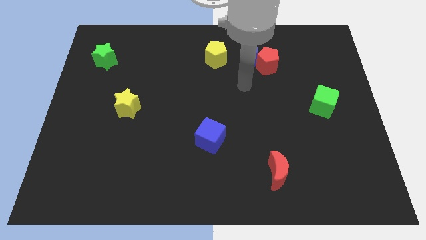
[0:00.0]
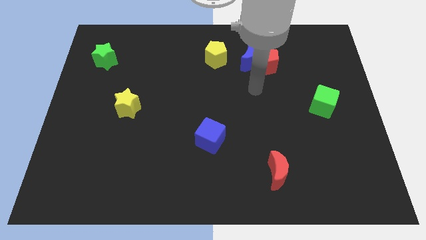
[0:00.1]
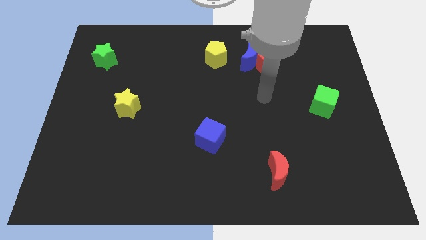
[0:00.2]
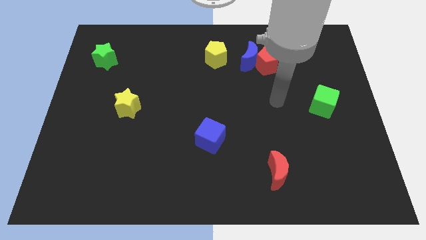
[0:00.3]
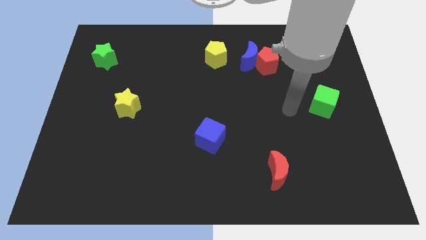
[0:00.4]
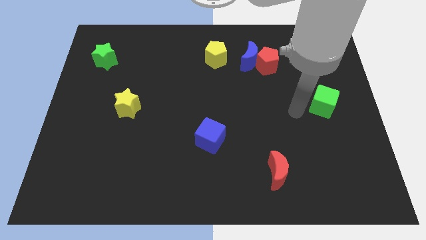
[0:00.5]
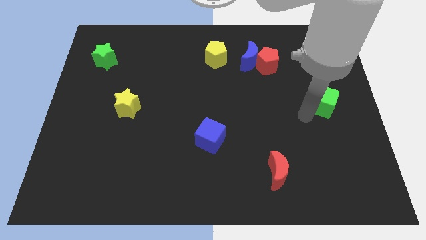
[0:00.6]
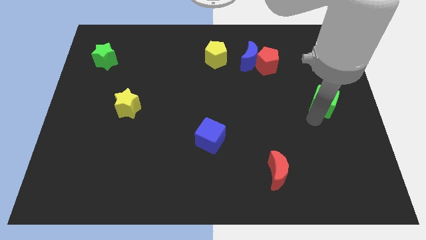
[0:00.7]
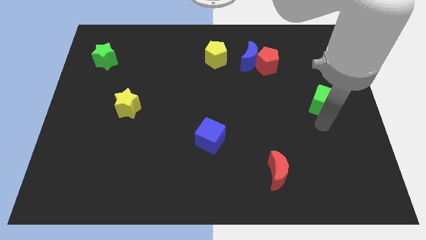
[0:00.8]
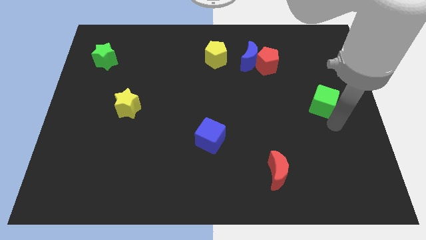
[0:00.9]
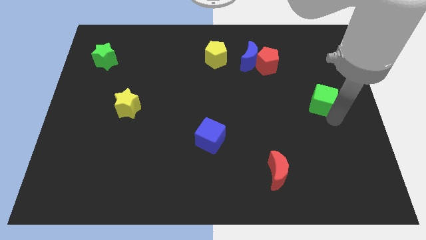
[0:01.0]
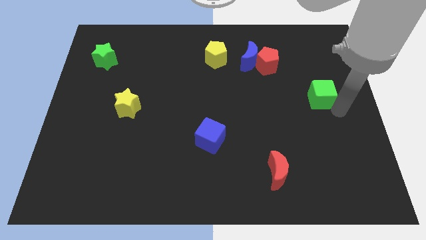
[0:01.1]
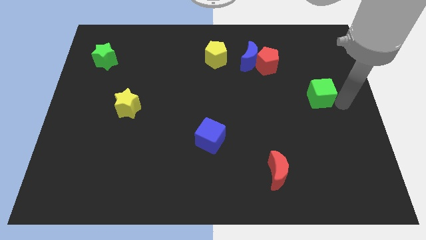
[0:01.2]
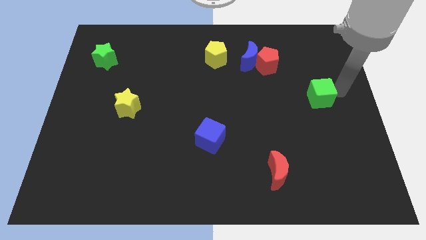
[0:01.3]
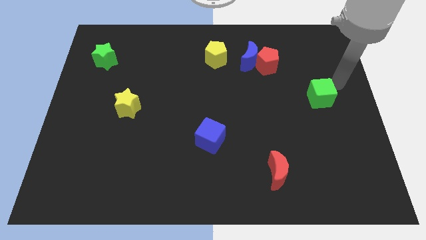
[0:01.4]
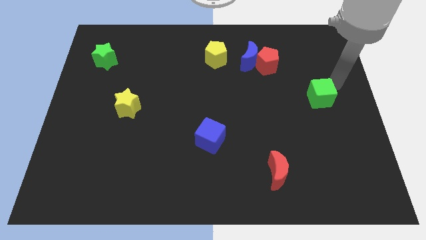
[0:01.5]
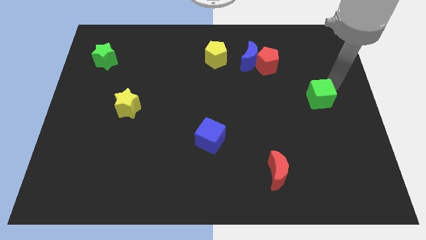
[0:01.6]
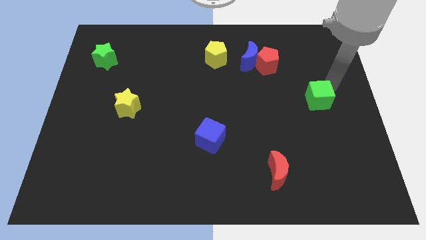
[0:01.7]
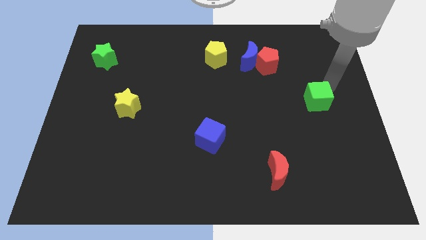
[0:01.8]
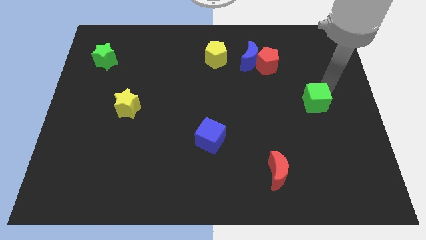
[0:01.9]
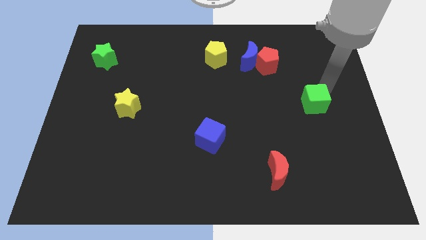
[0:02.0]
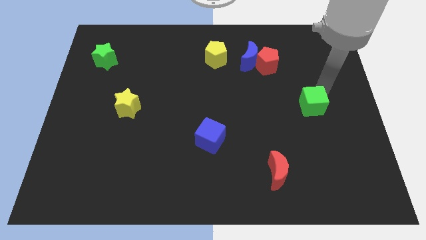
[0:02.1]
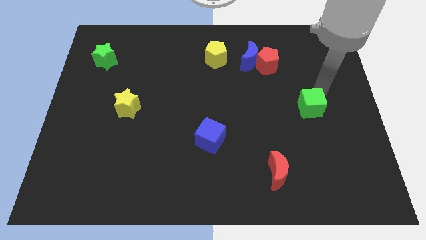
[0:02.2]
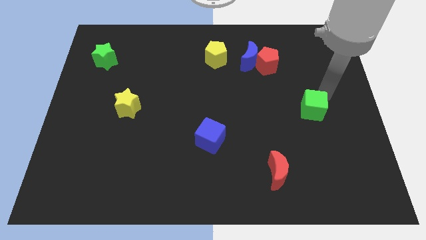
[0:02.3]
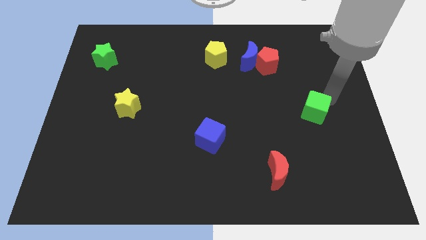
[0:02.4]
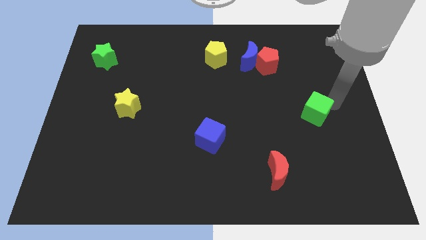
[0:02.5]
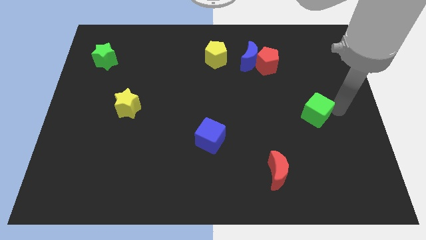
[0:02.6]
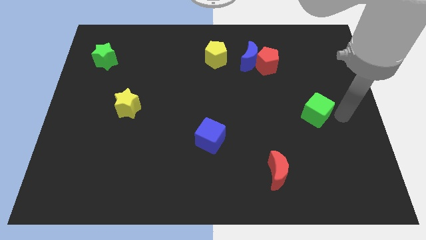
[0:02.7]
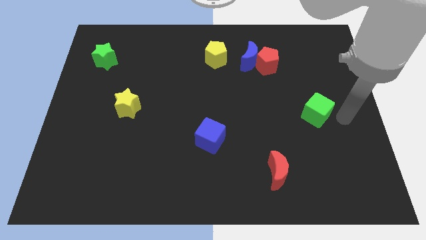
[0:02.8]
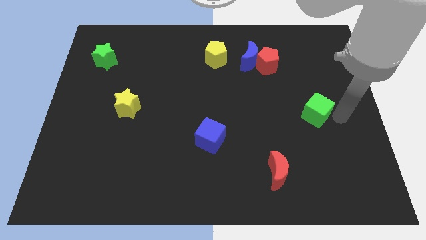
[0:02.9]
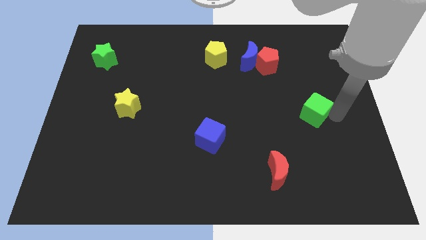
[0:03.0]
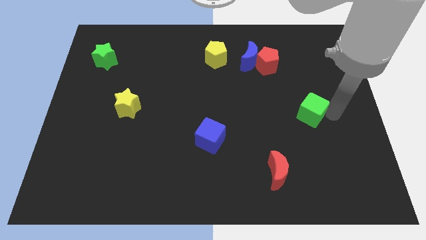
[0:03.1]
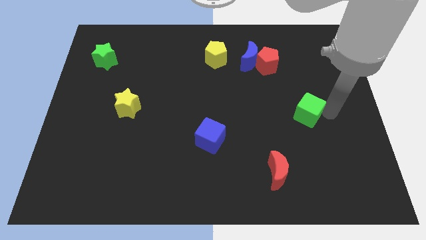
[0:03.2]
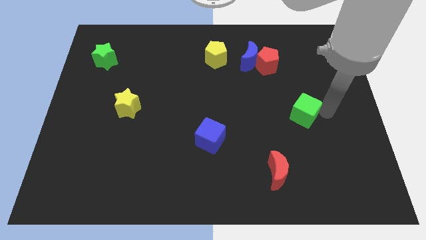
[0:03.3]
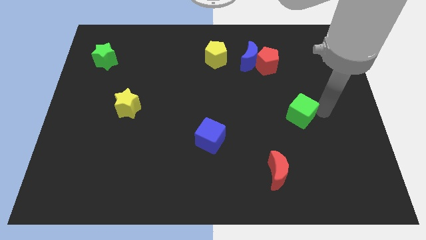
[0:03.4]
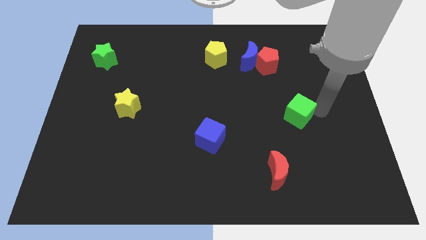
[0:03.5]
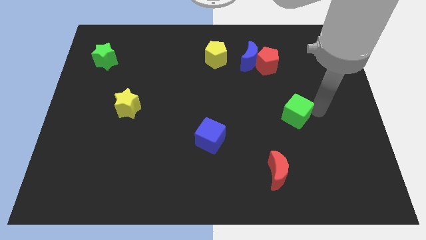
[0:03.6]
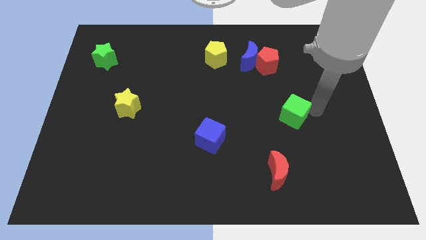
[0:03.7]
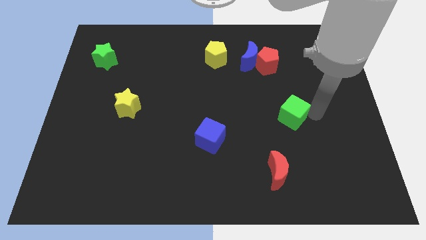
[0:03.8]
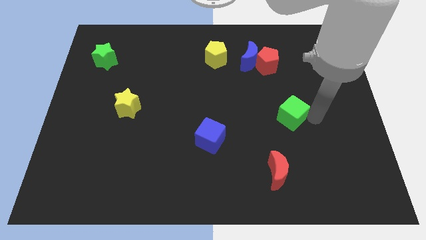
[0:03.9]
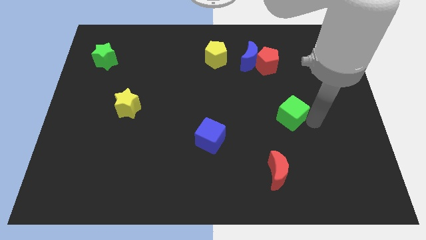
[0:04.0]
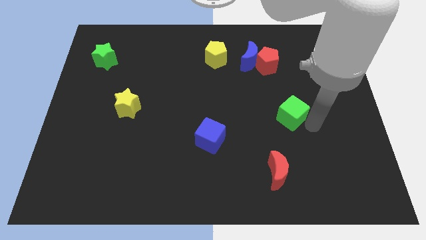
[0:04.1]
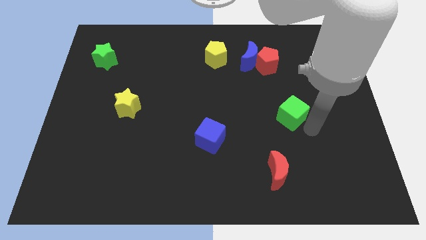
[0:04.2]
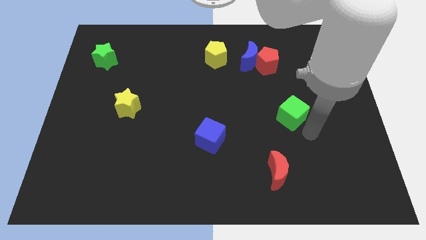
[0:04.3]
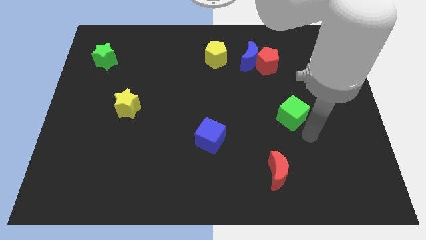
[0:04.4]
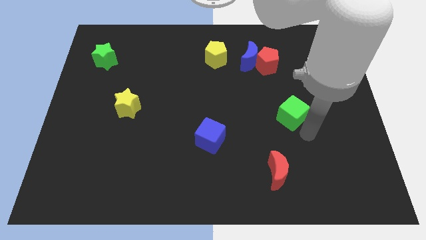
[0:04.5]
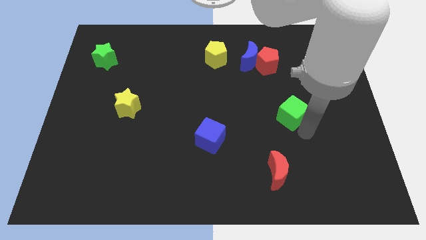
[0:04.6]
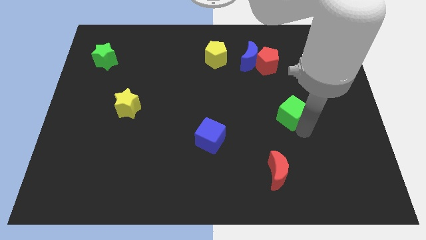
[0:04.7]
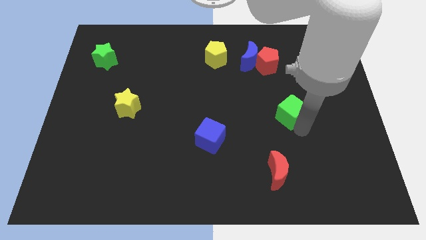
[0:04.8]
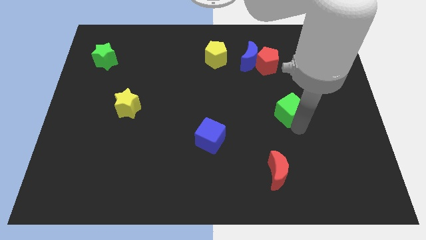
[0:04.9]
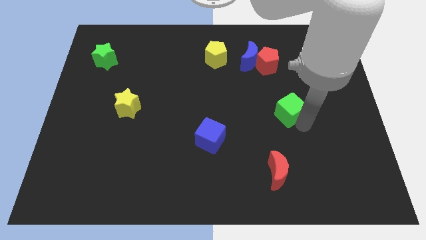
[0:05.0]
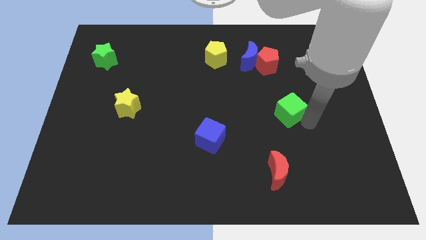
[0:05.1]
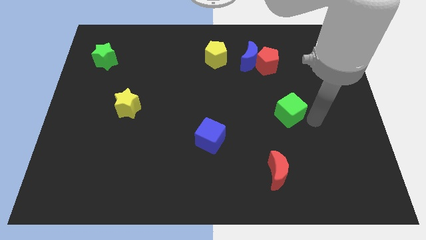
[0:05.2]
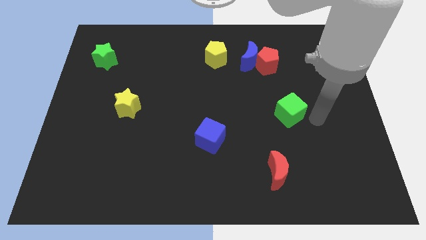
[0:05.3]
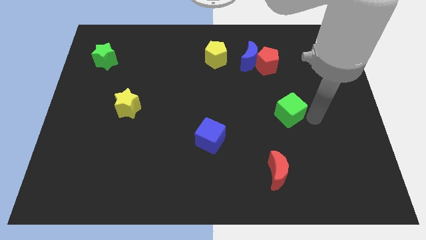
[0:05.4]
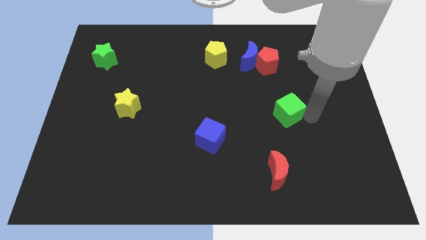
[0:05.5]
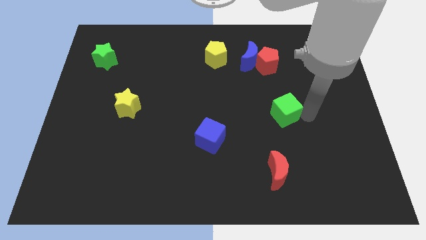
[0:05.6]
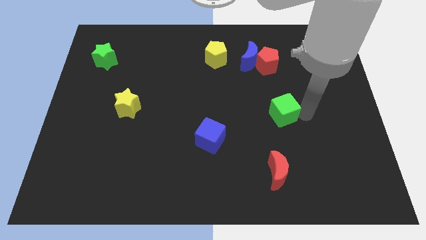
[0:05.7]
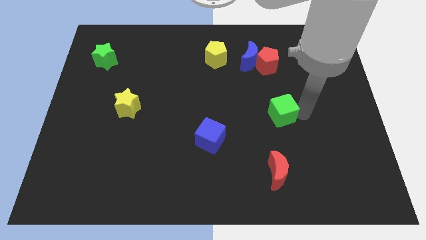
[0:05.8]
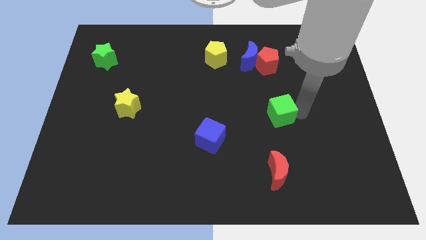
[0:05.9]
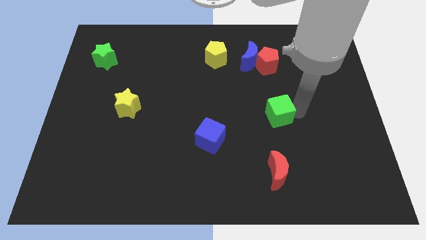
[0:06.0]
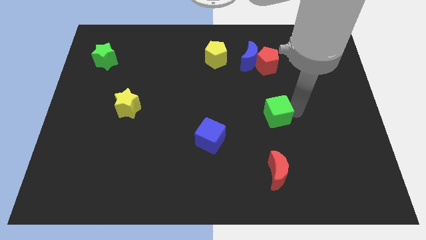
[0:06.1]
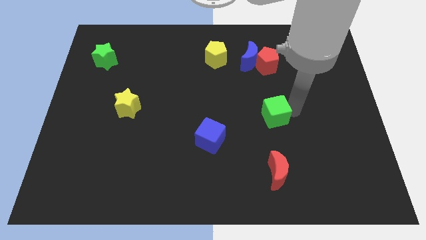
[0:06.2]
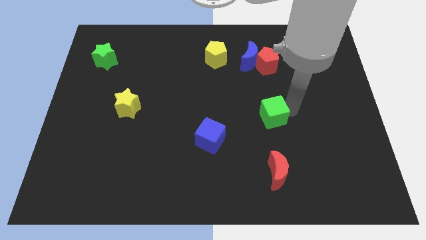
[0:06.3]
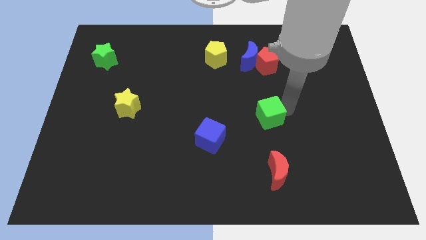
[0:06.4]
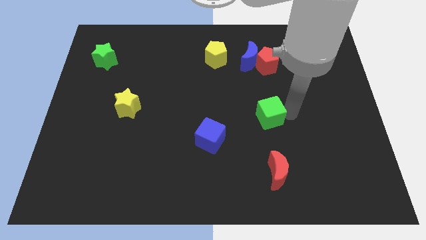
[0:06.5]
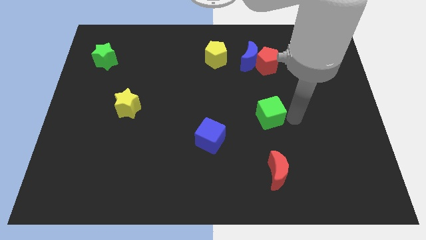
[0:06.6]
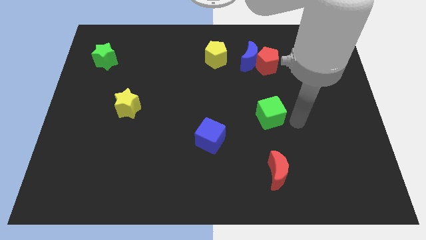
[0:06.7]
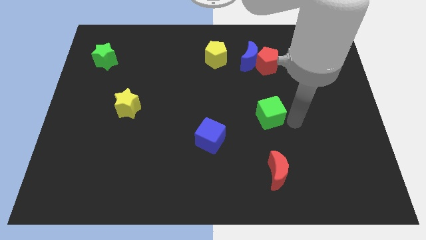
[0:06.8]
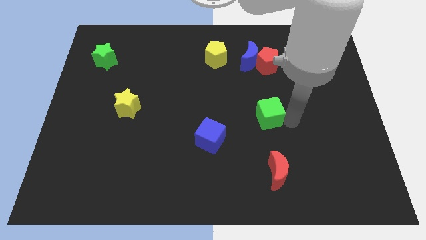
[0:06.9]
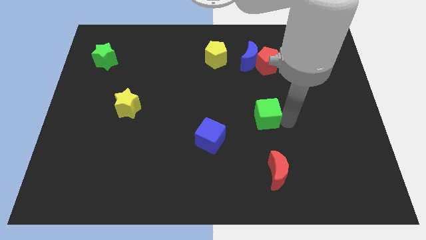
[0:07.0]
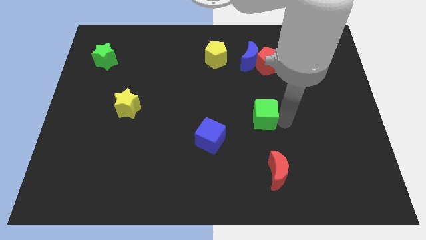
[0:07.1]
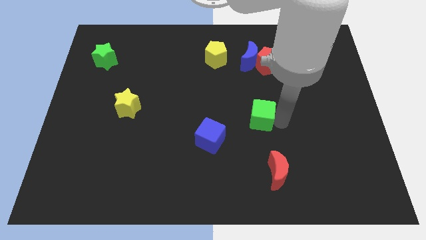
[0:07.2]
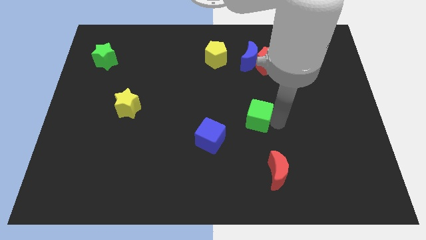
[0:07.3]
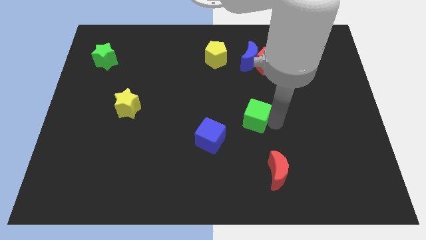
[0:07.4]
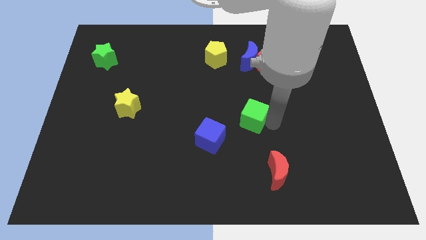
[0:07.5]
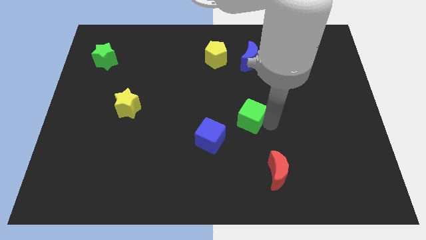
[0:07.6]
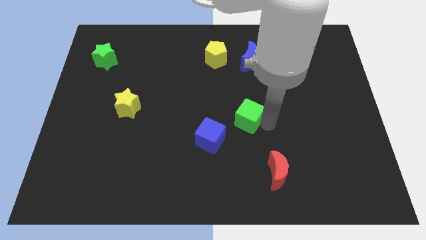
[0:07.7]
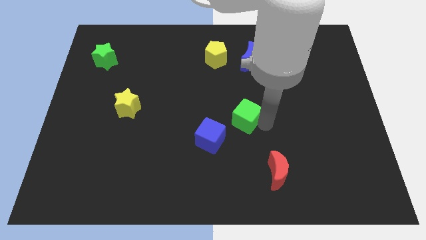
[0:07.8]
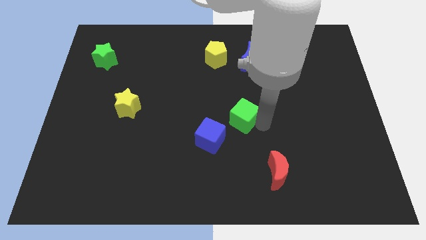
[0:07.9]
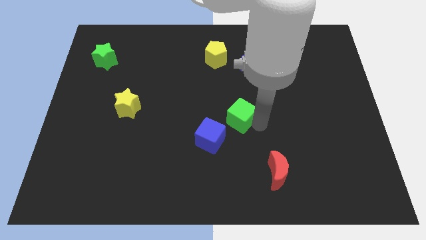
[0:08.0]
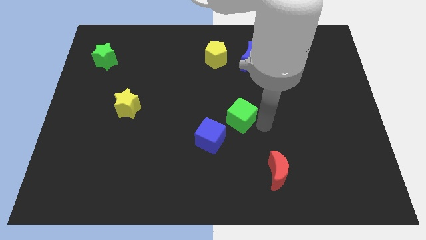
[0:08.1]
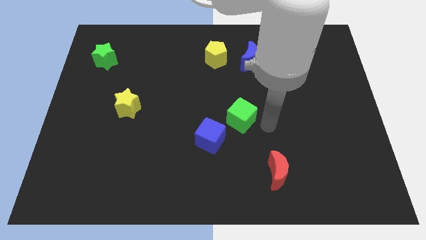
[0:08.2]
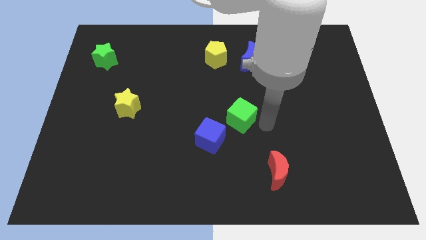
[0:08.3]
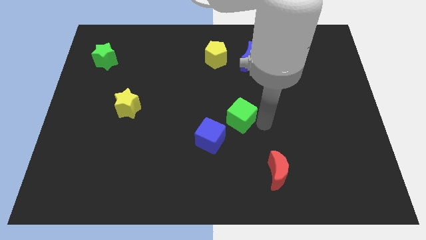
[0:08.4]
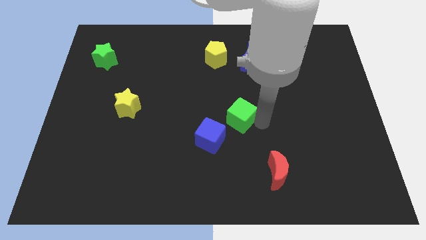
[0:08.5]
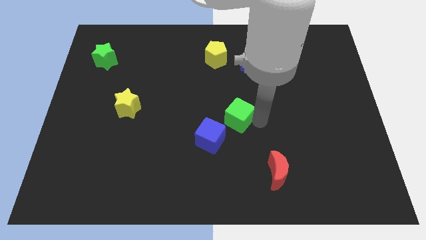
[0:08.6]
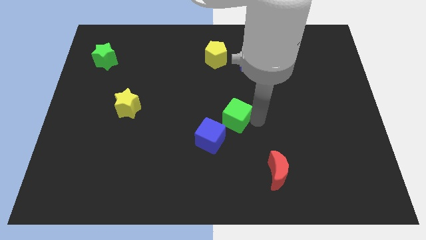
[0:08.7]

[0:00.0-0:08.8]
move the green cube to the left
